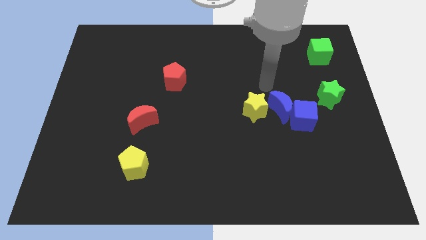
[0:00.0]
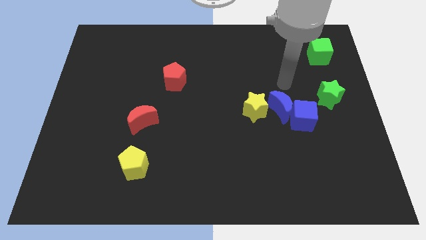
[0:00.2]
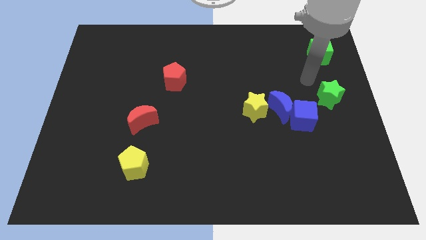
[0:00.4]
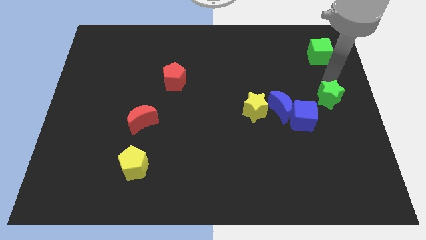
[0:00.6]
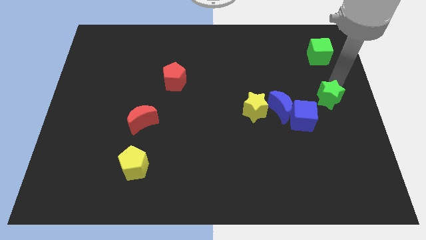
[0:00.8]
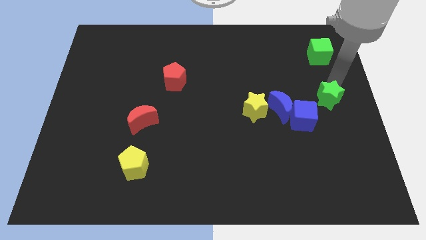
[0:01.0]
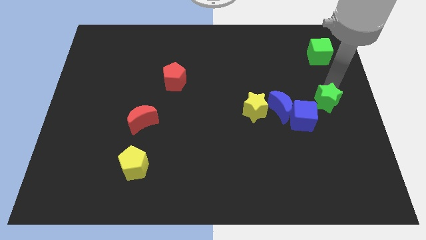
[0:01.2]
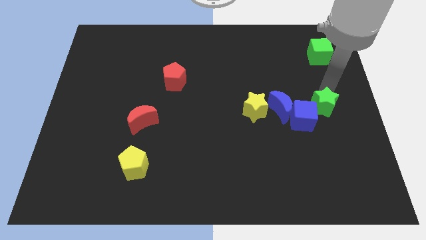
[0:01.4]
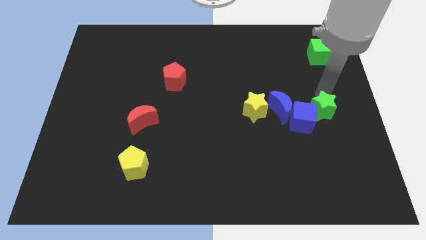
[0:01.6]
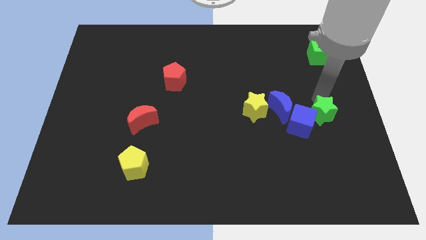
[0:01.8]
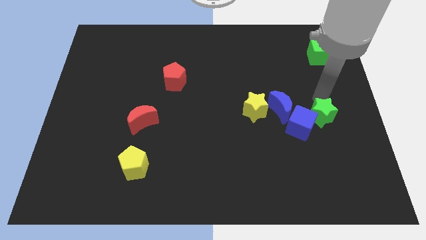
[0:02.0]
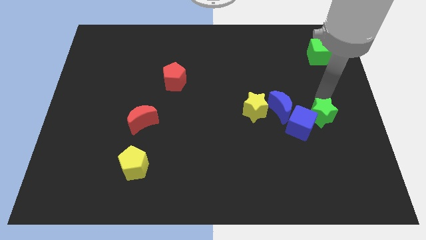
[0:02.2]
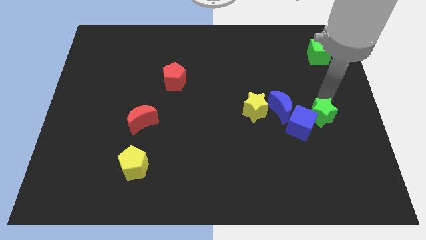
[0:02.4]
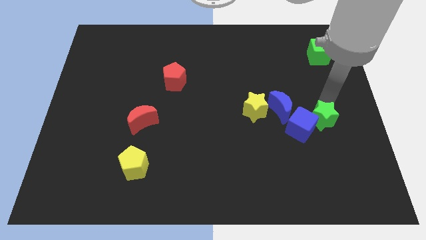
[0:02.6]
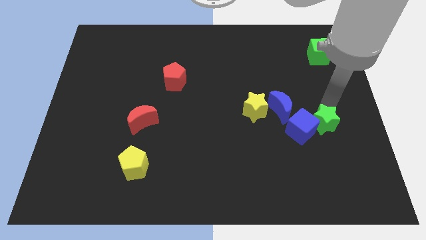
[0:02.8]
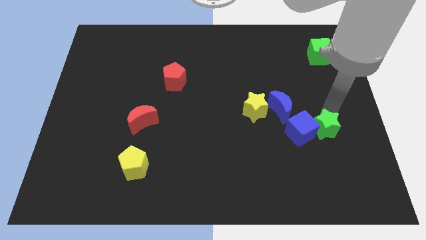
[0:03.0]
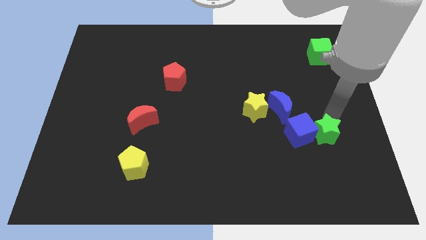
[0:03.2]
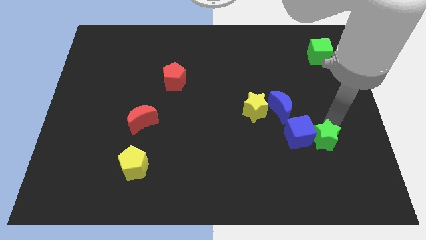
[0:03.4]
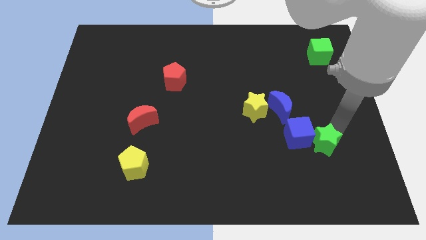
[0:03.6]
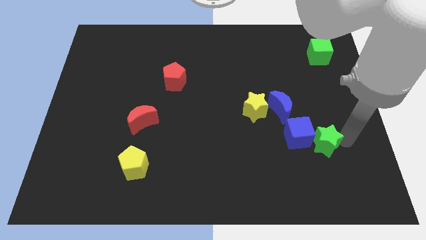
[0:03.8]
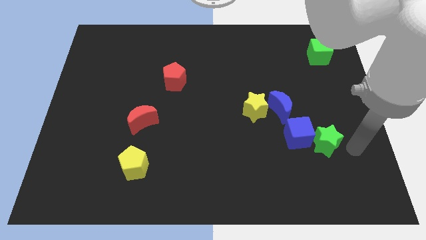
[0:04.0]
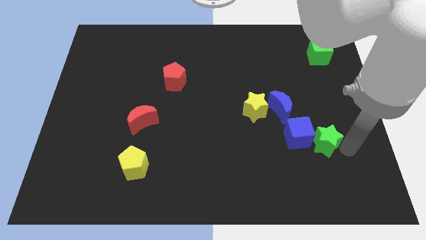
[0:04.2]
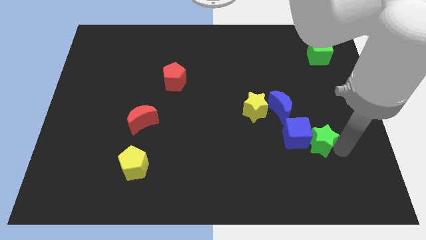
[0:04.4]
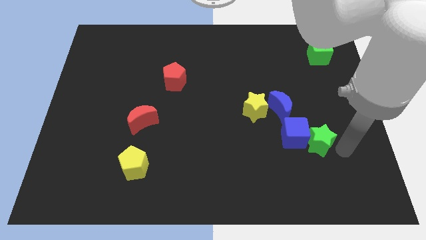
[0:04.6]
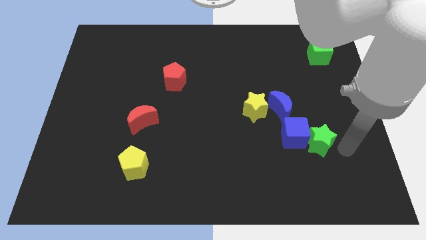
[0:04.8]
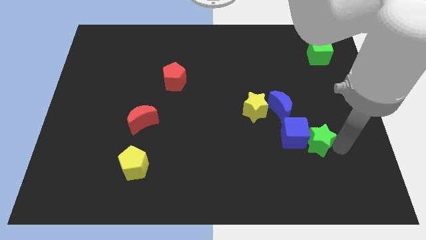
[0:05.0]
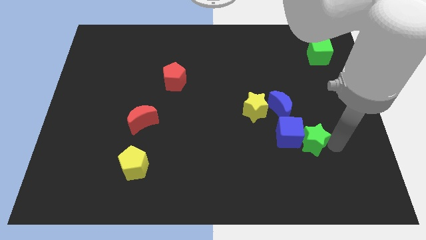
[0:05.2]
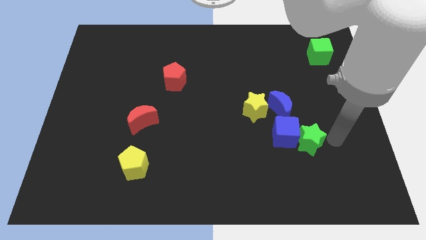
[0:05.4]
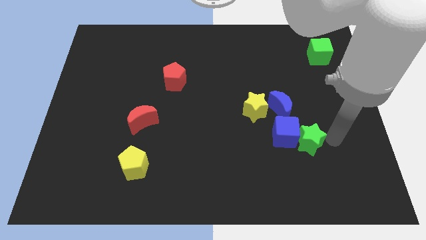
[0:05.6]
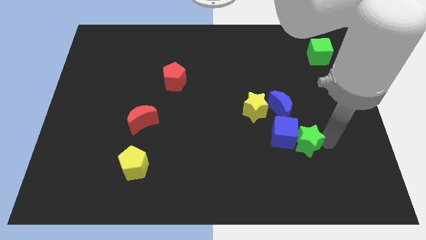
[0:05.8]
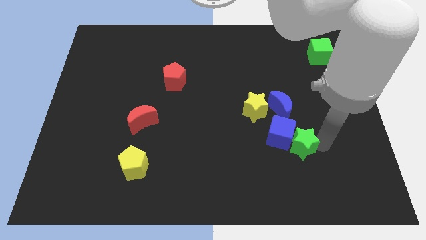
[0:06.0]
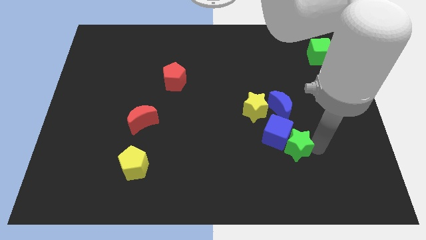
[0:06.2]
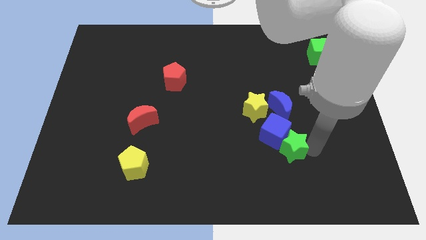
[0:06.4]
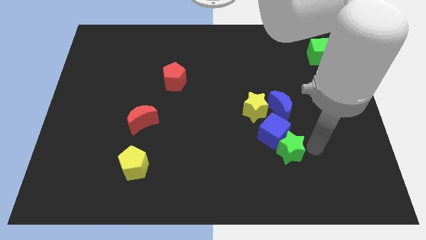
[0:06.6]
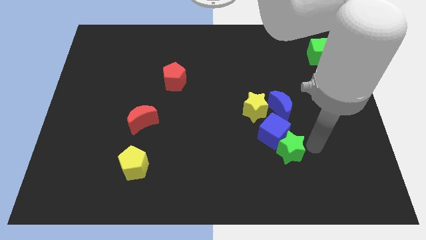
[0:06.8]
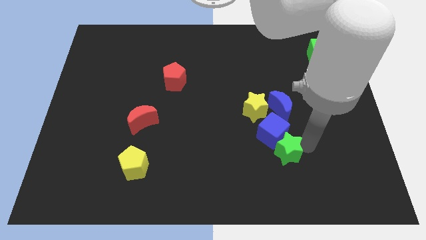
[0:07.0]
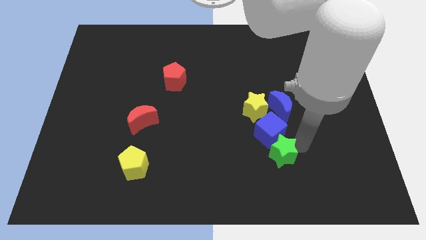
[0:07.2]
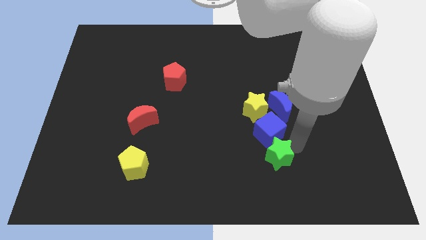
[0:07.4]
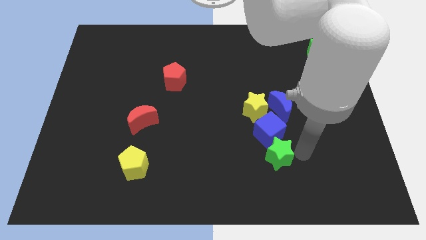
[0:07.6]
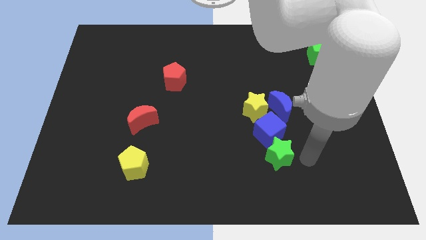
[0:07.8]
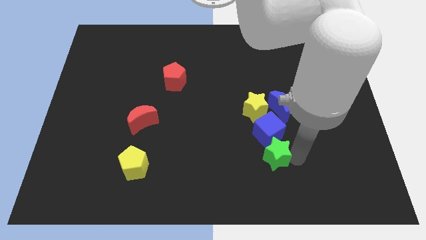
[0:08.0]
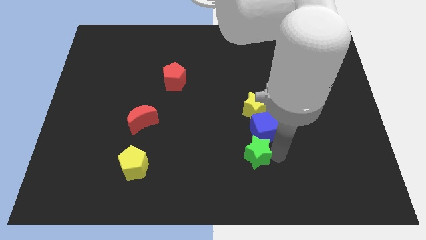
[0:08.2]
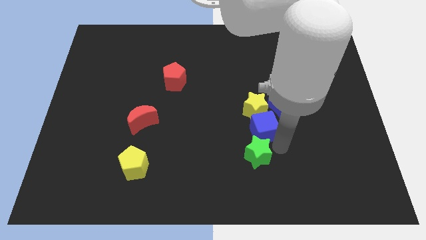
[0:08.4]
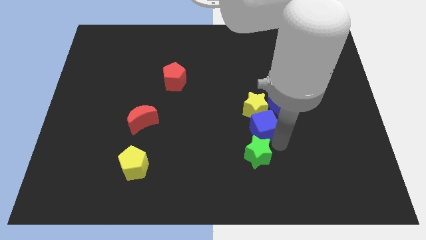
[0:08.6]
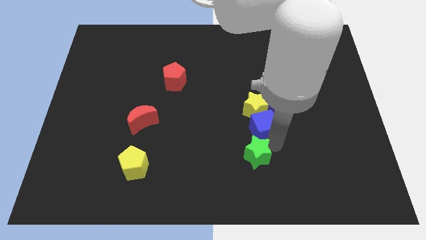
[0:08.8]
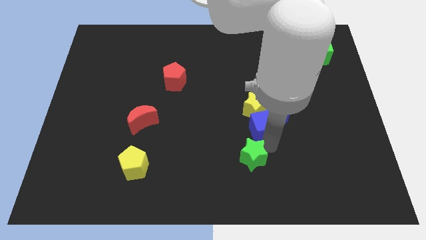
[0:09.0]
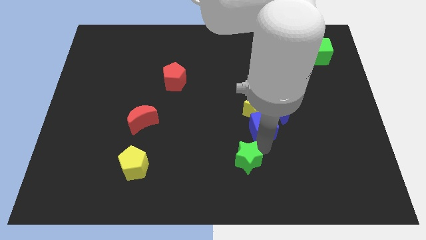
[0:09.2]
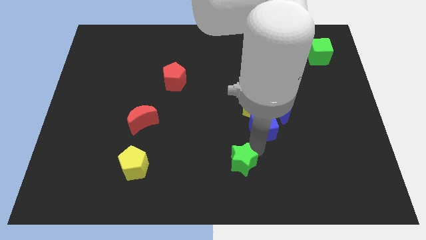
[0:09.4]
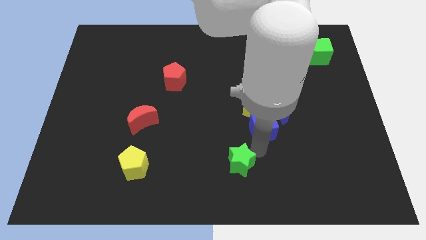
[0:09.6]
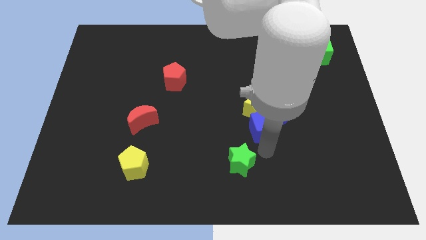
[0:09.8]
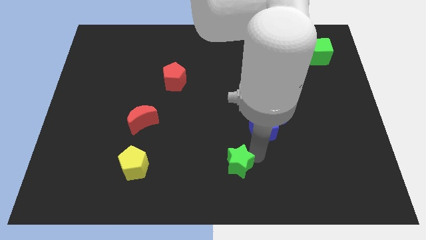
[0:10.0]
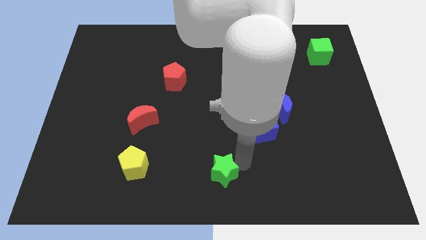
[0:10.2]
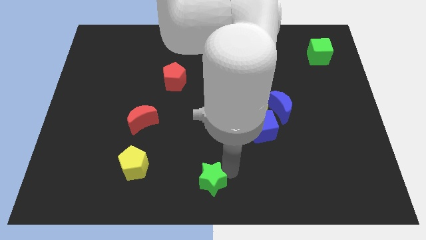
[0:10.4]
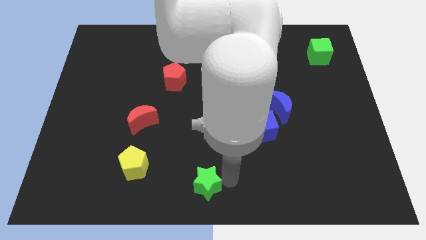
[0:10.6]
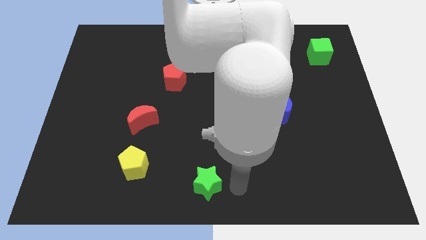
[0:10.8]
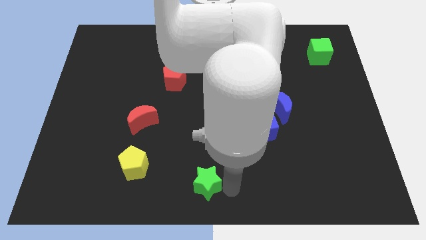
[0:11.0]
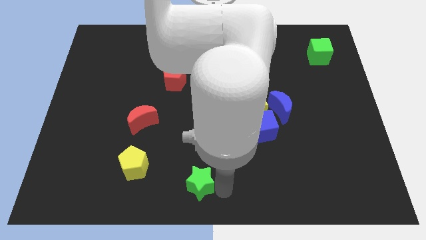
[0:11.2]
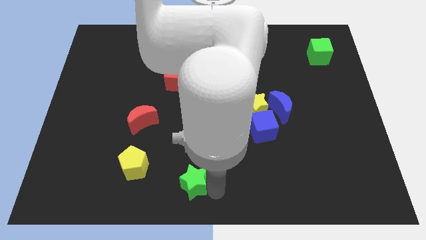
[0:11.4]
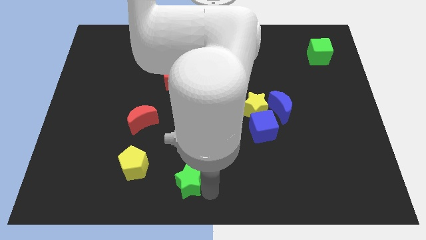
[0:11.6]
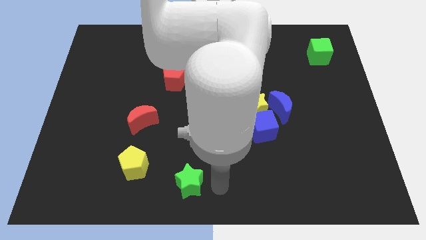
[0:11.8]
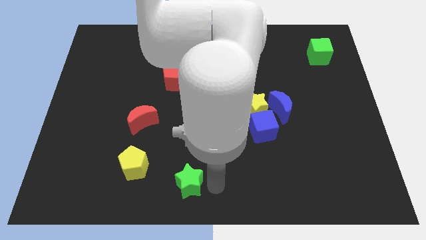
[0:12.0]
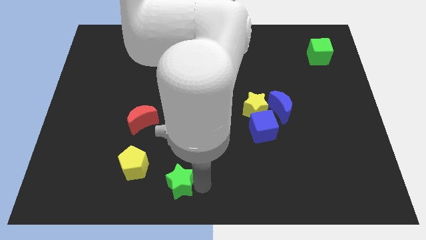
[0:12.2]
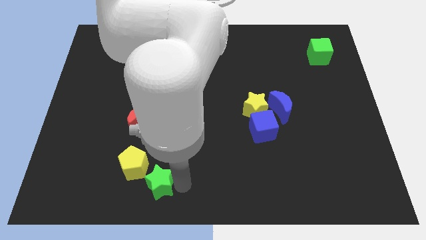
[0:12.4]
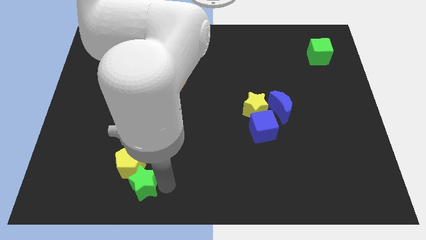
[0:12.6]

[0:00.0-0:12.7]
slide the green star to the bottom of the red moon

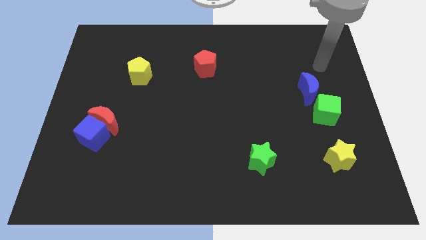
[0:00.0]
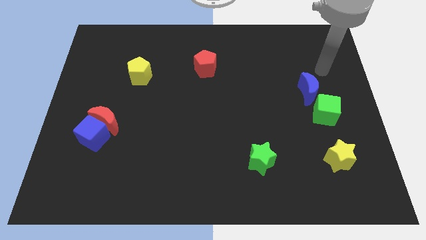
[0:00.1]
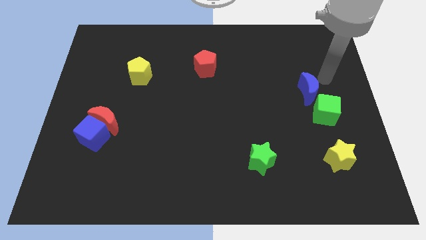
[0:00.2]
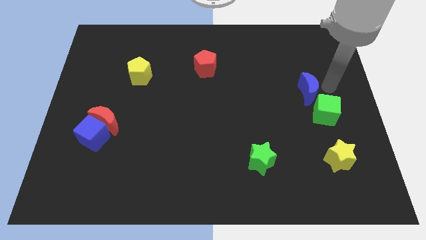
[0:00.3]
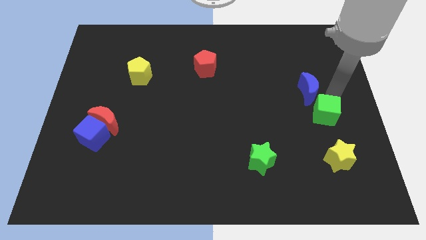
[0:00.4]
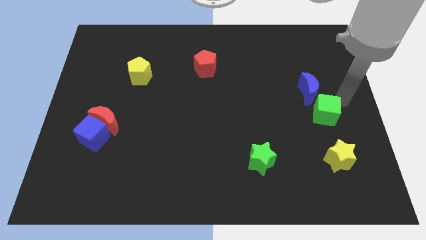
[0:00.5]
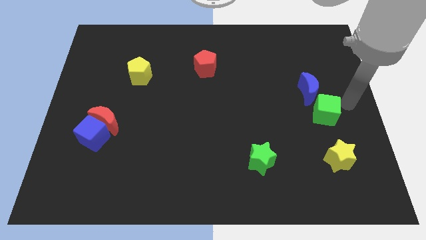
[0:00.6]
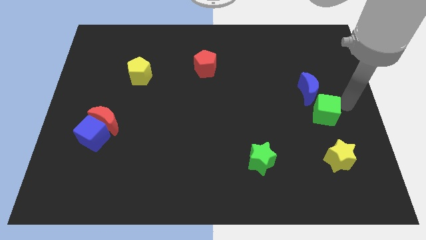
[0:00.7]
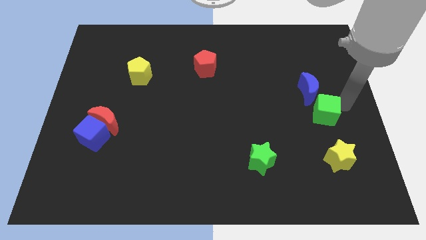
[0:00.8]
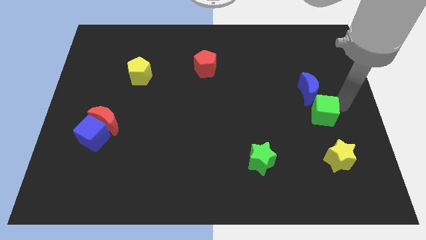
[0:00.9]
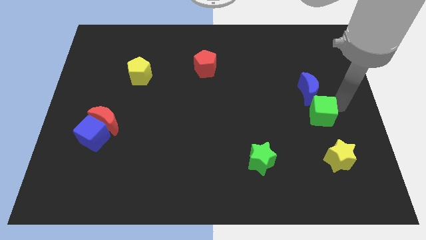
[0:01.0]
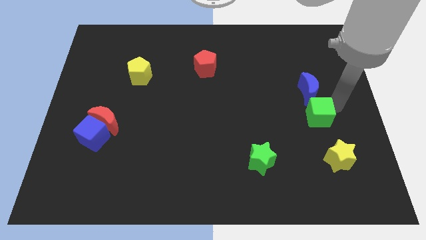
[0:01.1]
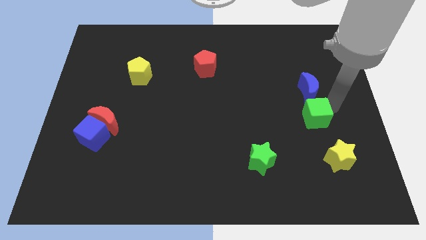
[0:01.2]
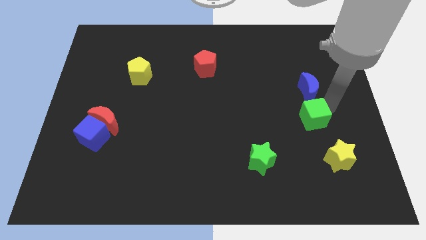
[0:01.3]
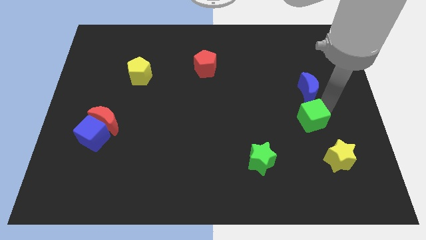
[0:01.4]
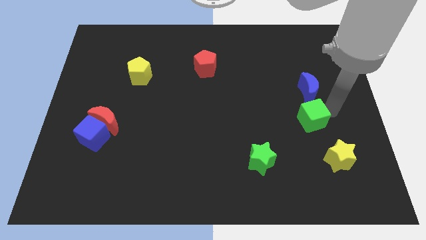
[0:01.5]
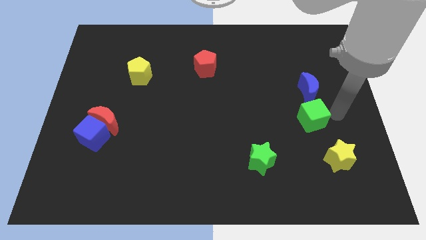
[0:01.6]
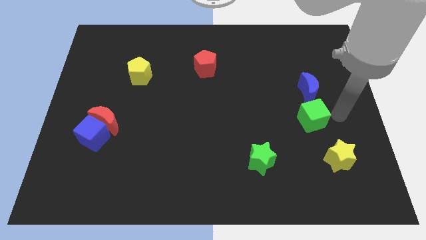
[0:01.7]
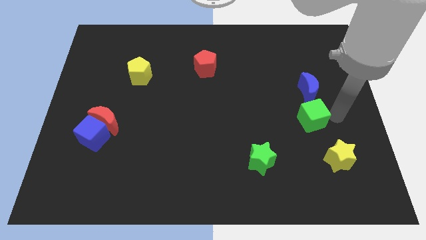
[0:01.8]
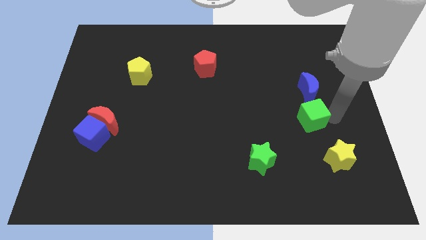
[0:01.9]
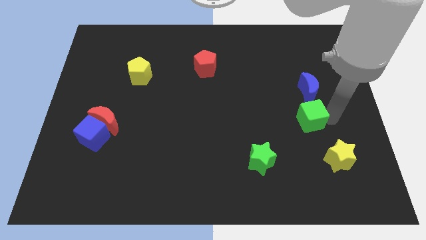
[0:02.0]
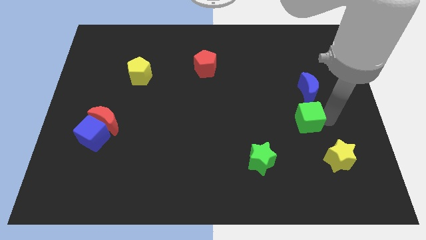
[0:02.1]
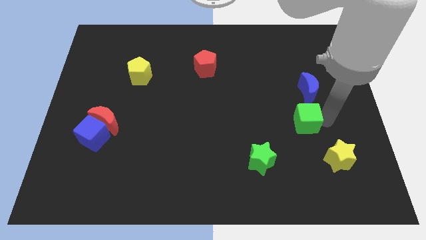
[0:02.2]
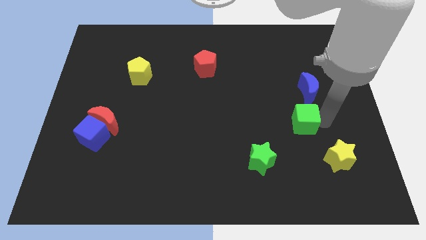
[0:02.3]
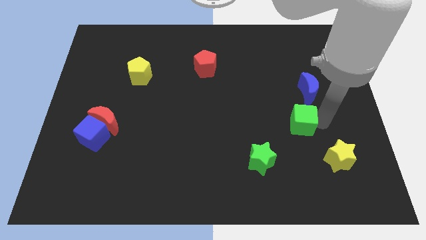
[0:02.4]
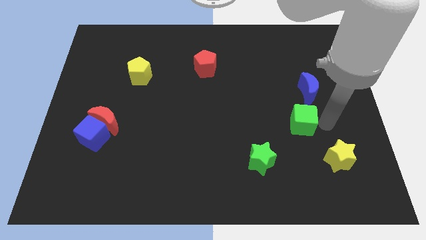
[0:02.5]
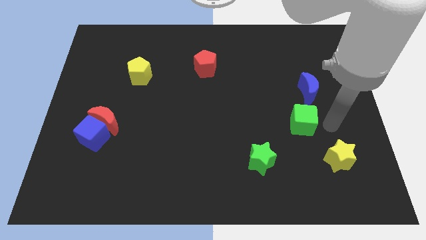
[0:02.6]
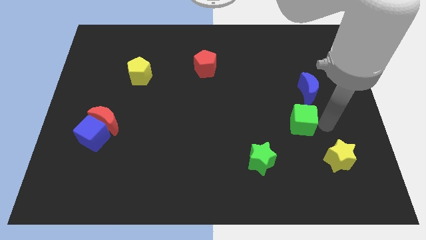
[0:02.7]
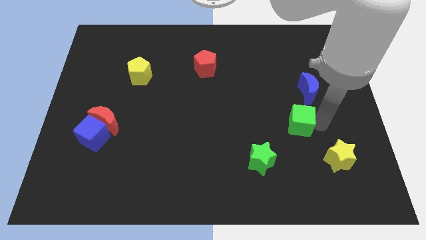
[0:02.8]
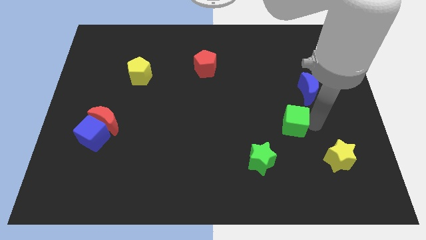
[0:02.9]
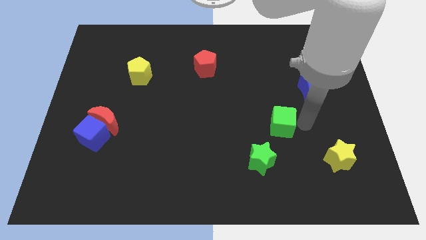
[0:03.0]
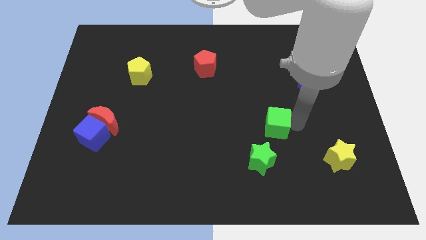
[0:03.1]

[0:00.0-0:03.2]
push the green cube above the green star
